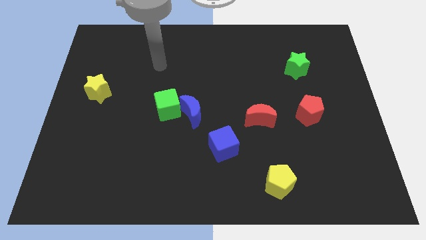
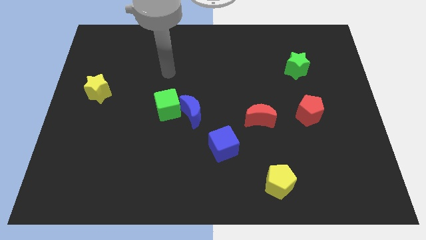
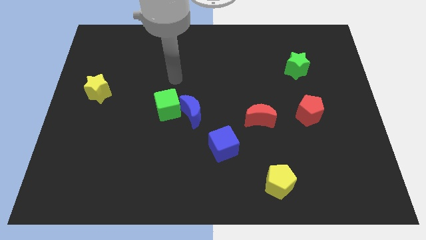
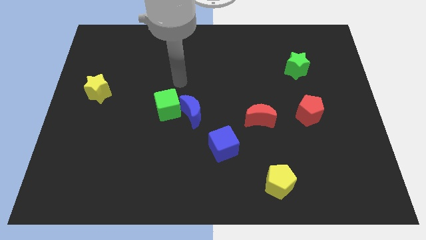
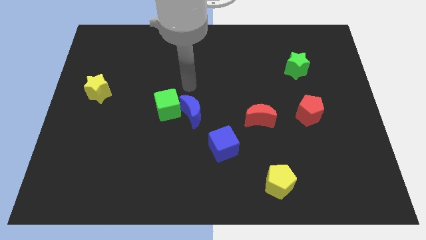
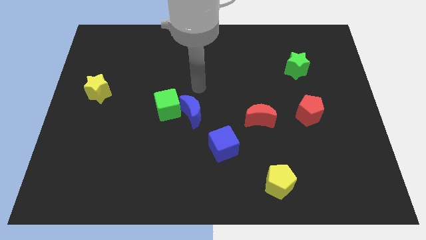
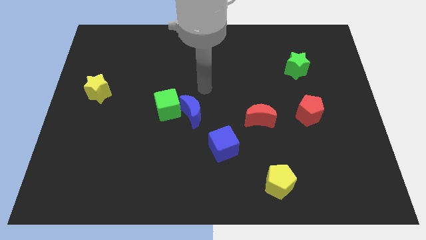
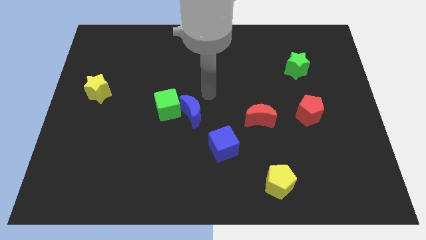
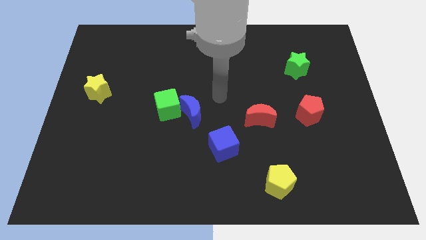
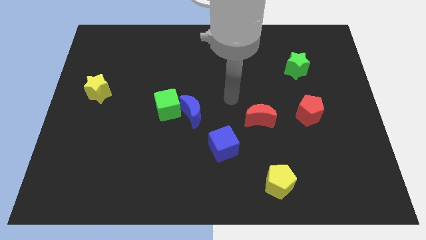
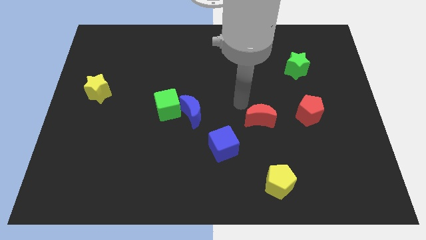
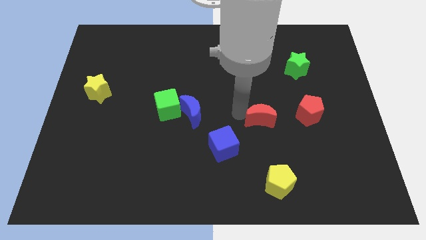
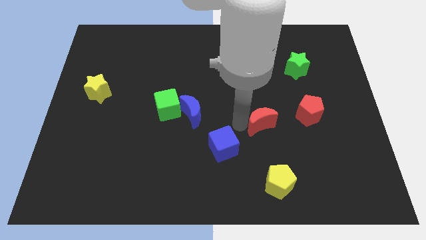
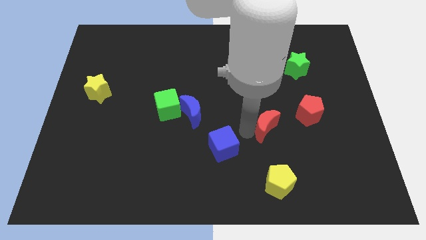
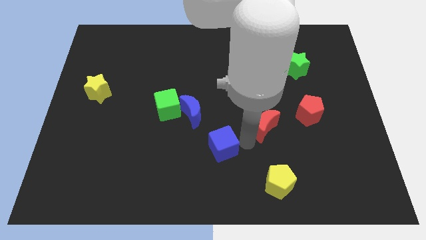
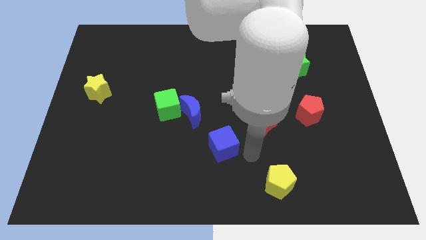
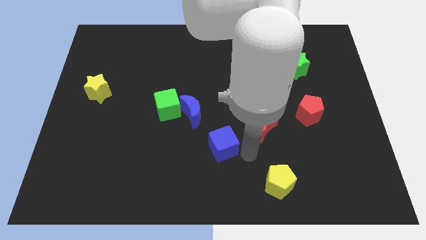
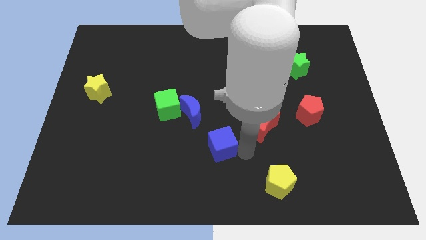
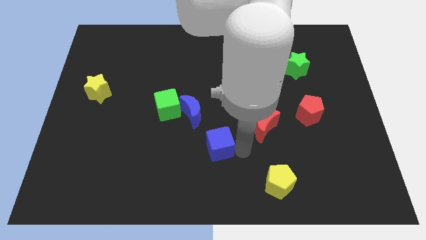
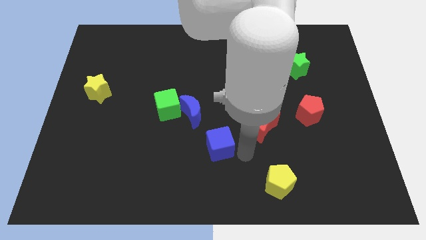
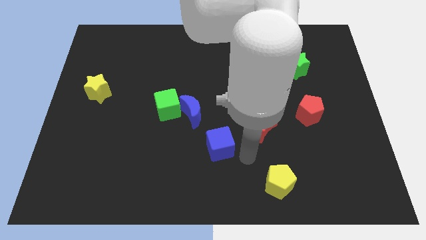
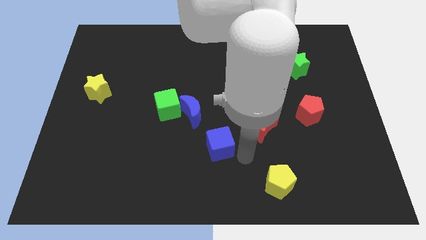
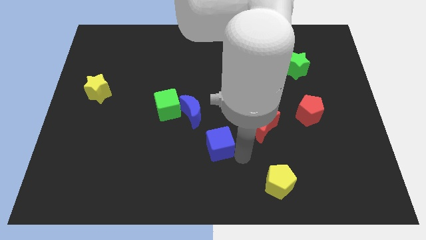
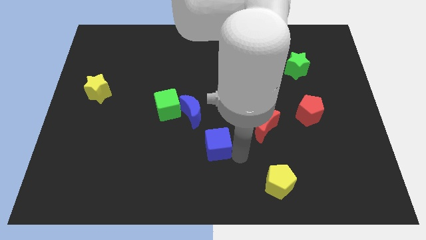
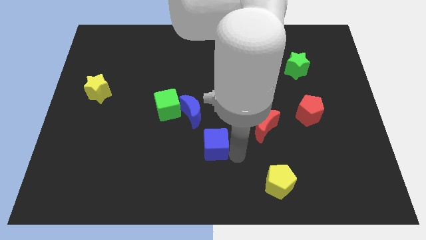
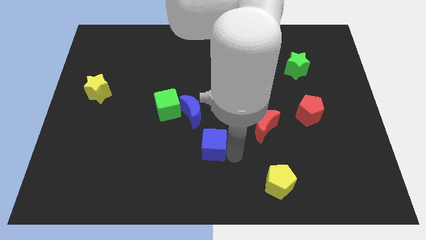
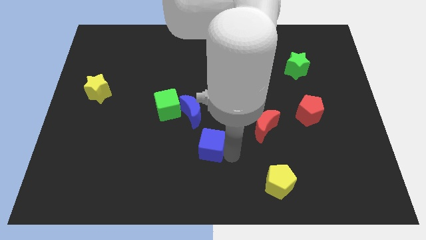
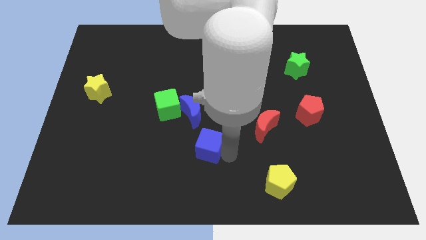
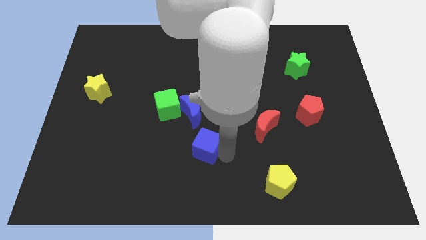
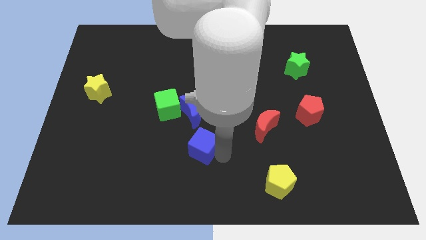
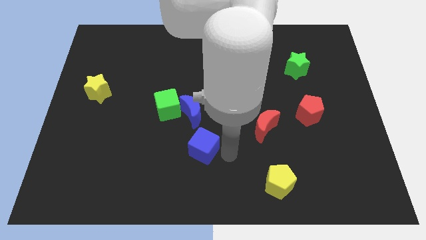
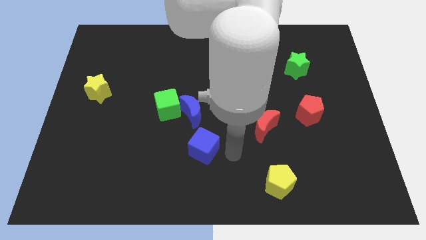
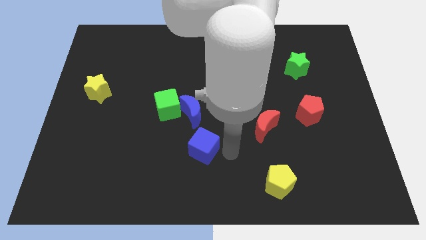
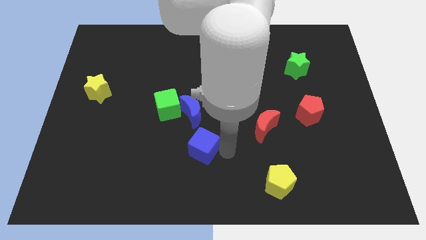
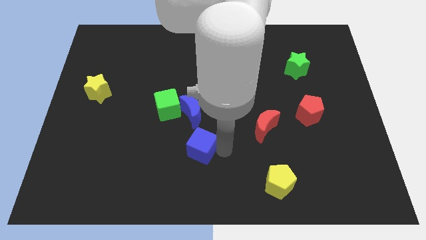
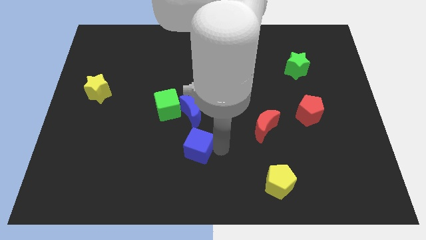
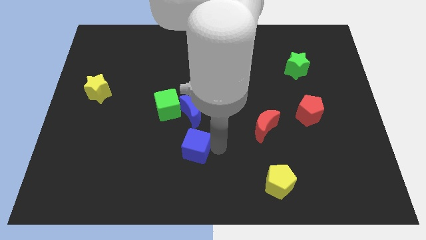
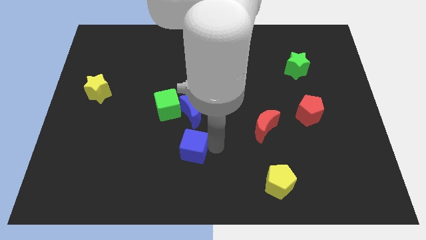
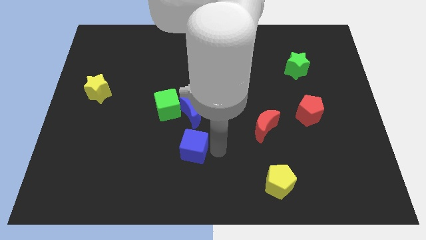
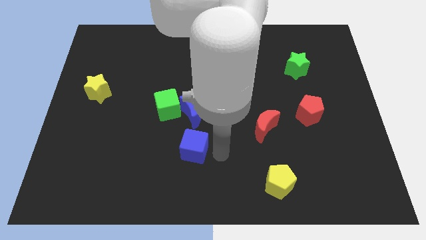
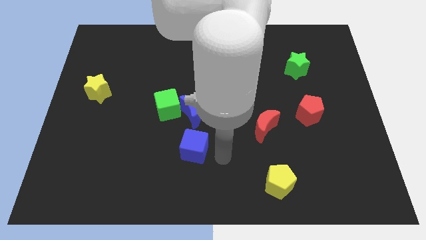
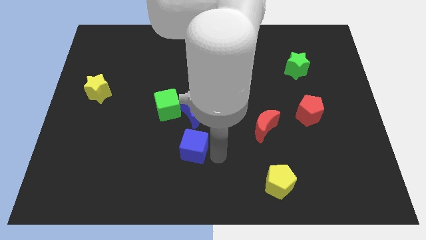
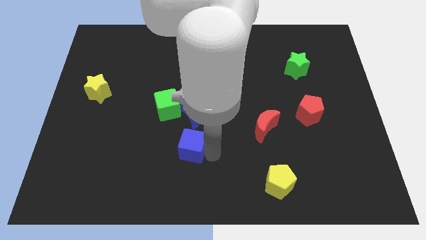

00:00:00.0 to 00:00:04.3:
slide the blue cube to the left somewhat

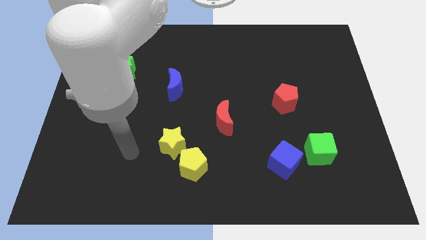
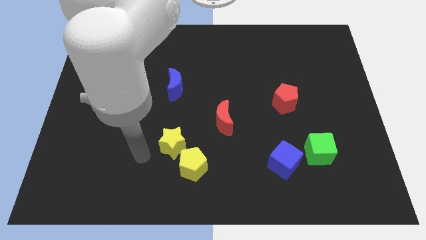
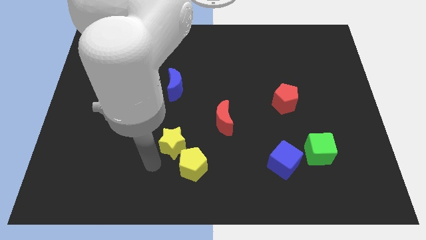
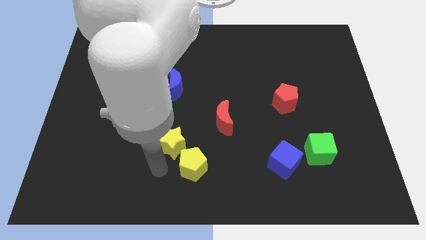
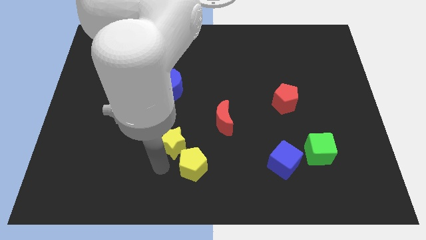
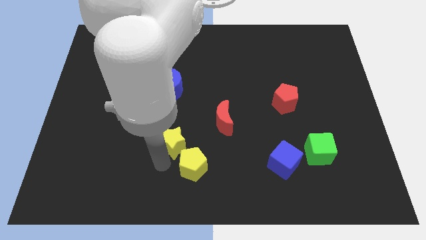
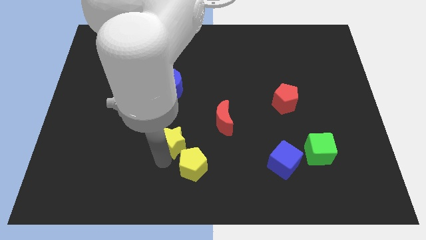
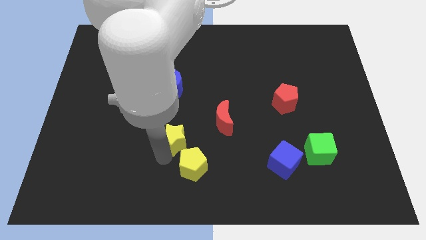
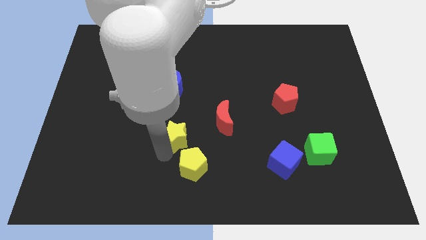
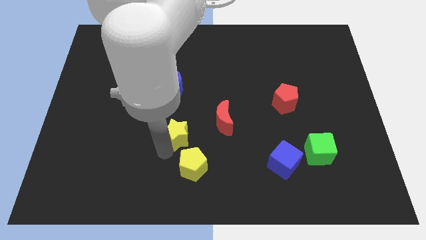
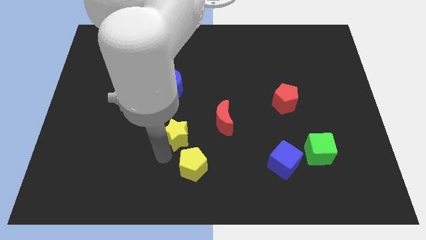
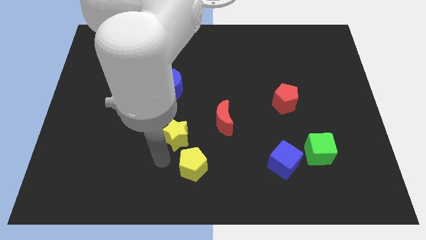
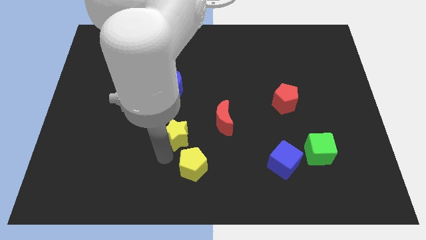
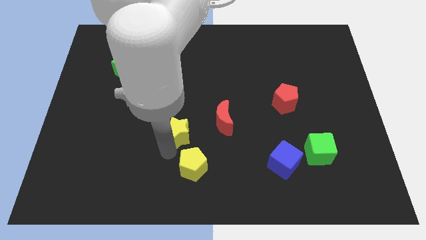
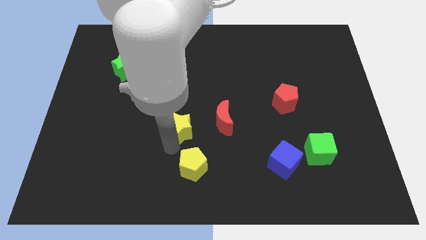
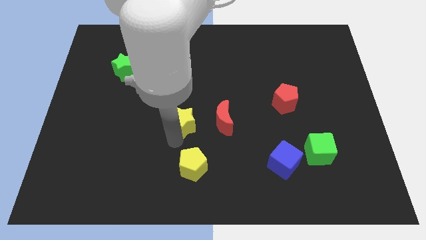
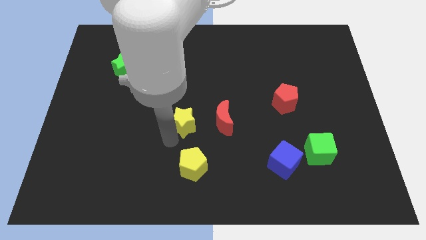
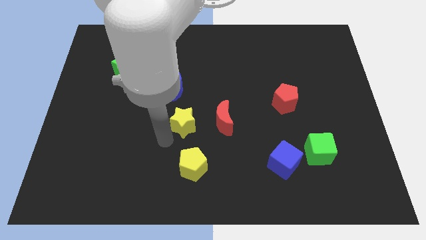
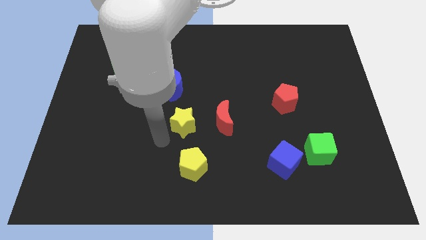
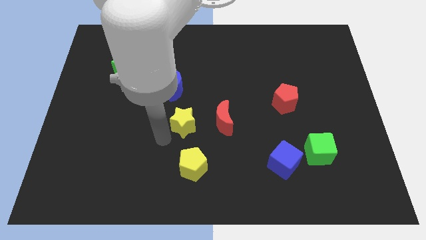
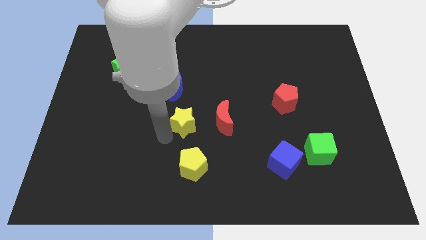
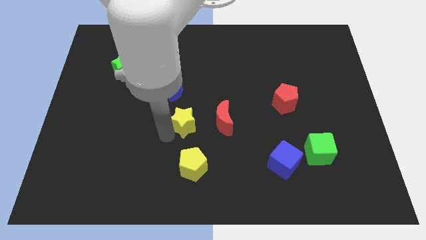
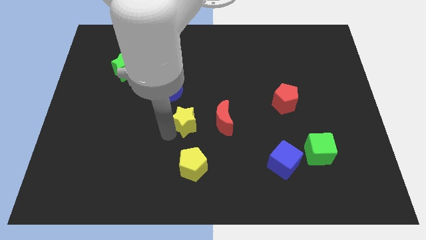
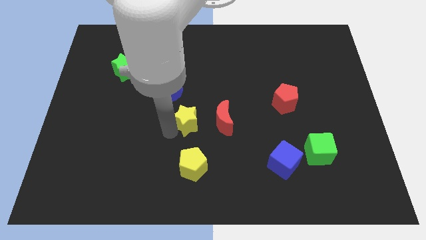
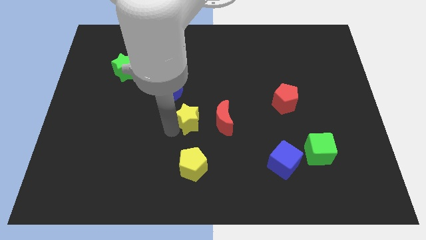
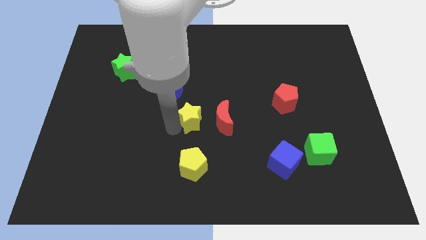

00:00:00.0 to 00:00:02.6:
slide the yellow star a little bit up and then right

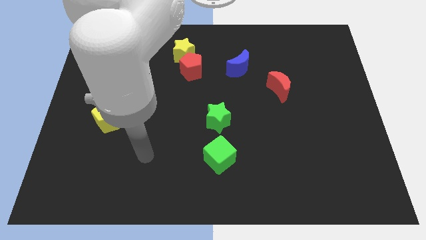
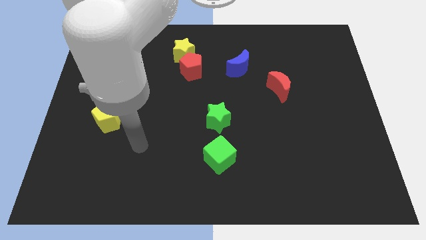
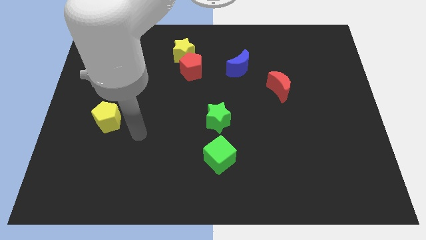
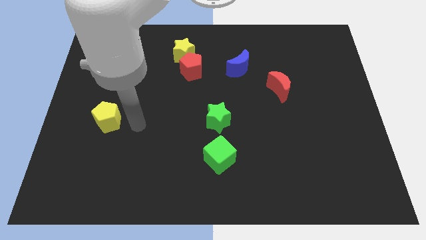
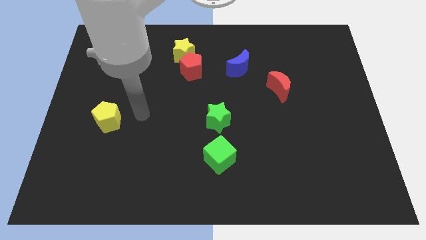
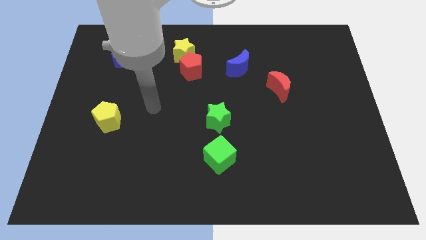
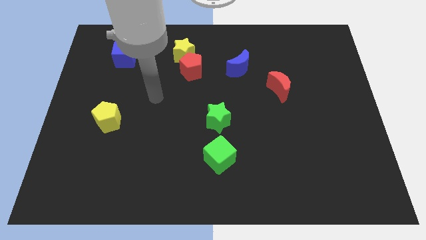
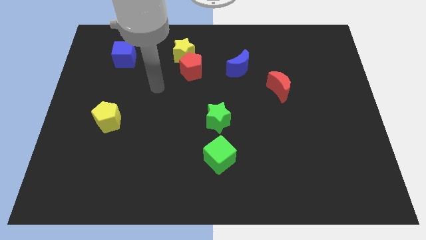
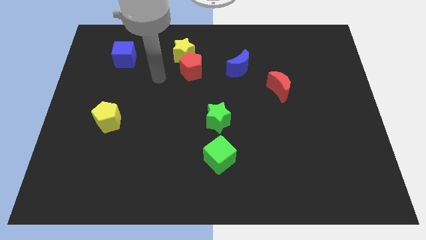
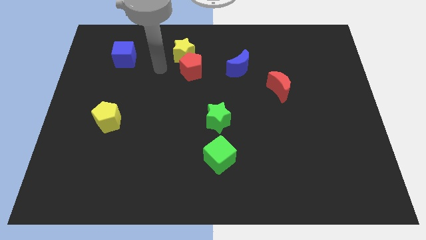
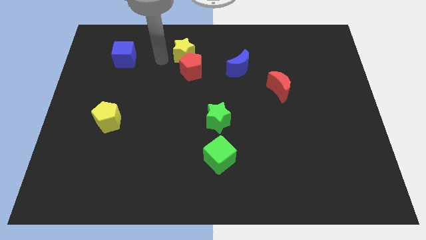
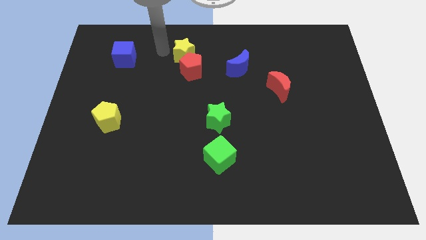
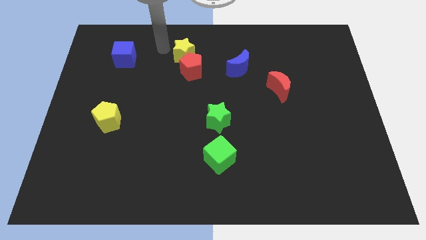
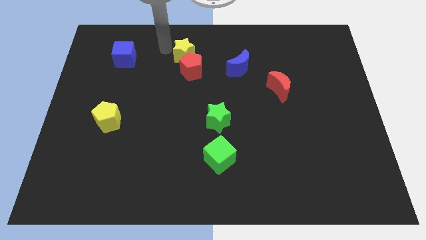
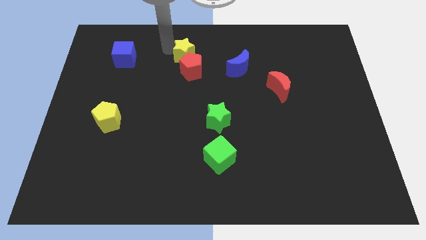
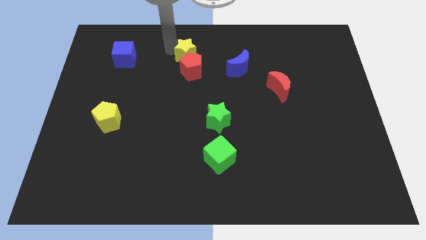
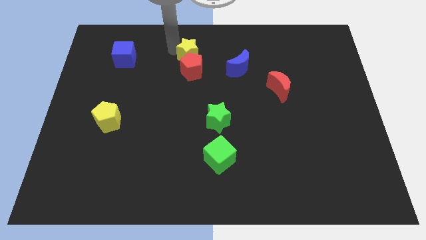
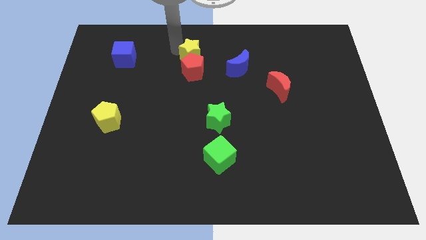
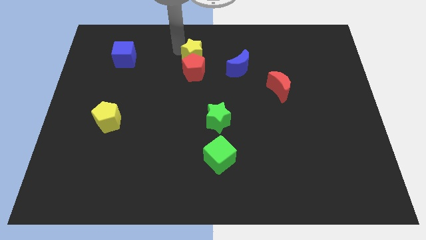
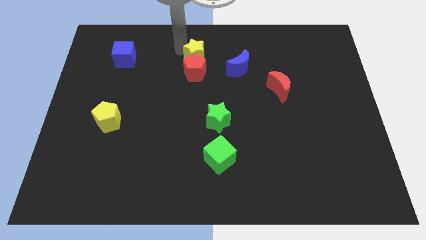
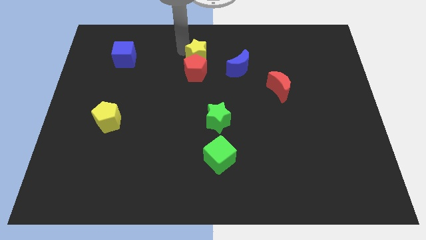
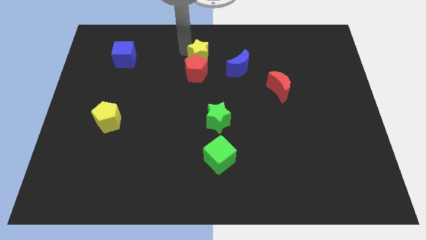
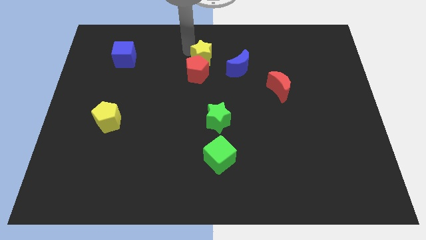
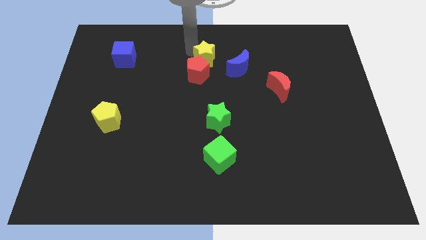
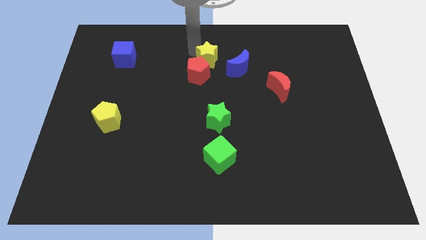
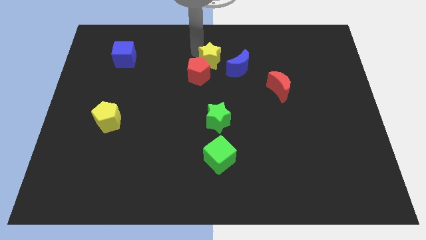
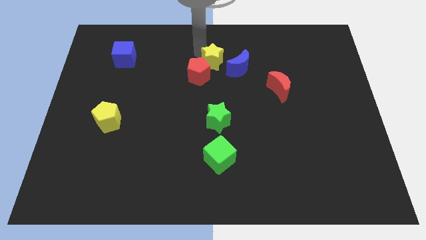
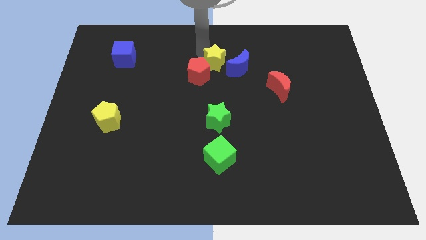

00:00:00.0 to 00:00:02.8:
slide the yellow star somewhat down and then to the right
